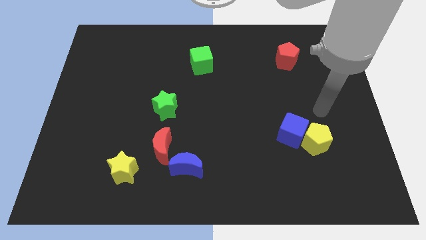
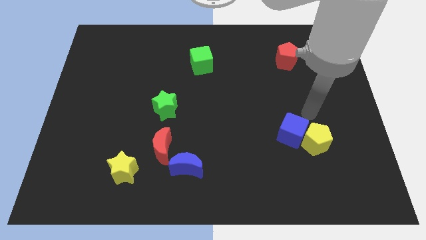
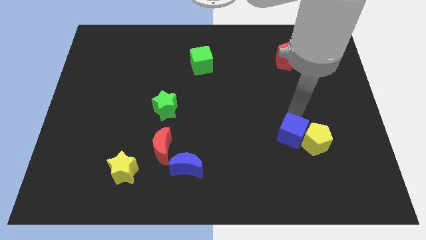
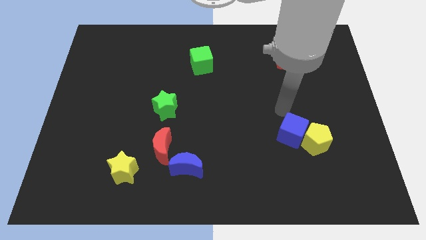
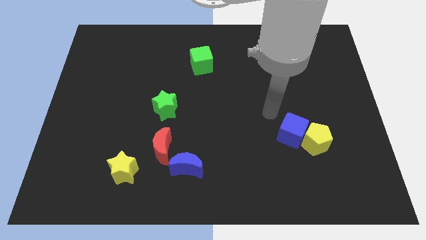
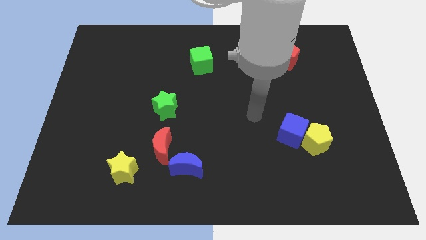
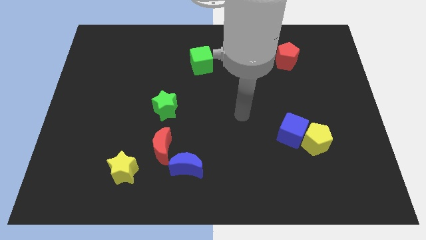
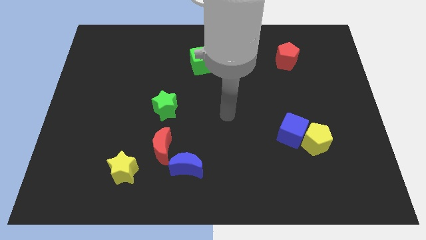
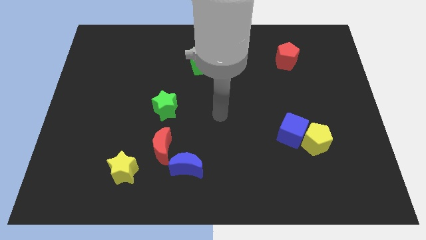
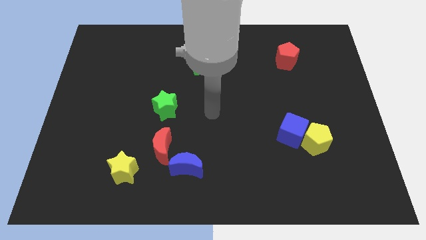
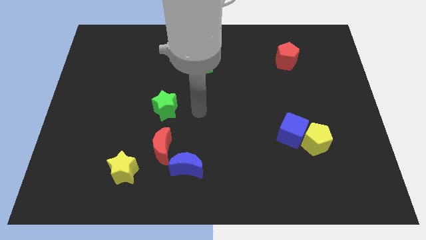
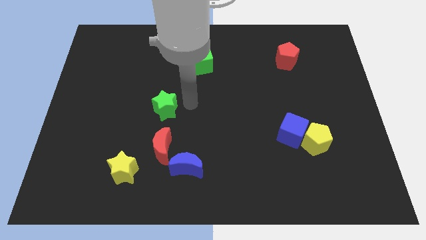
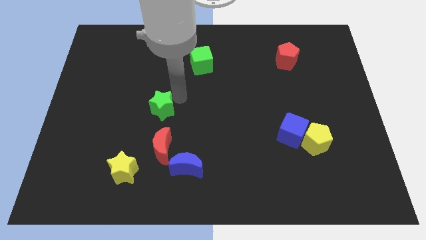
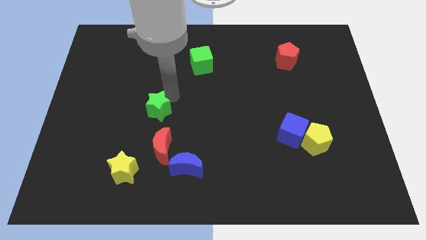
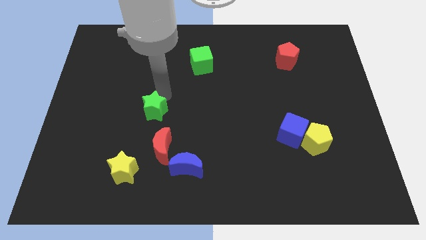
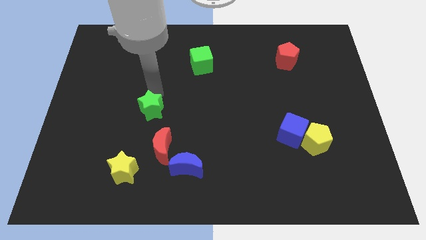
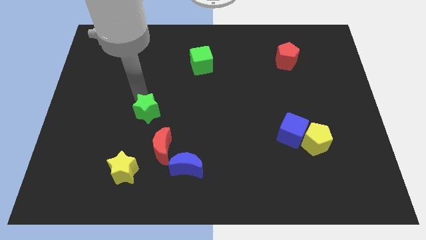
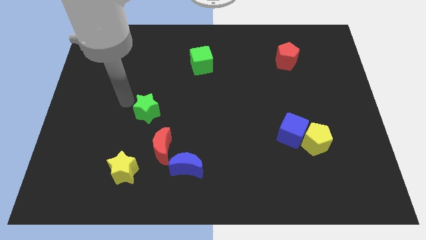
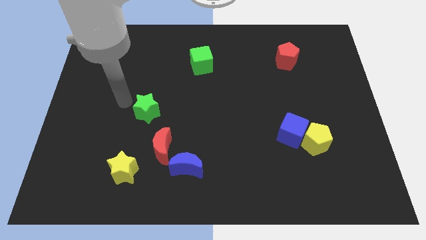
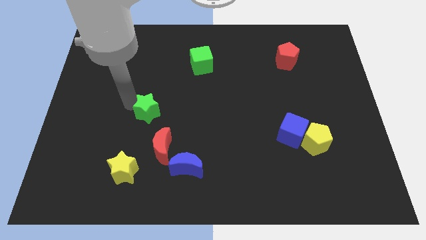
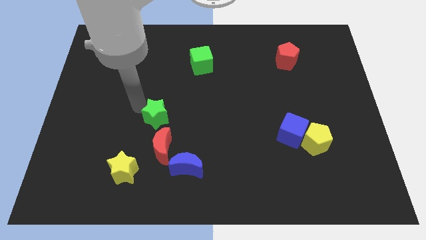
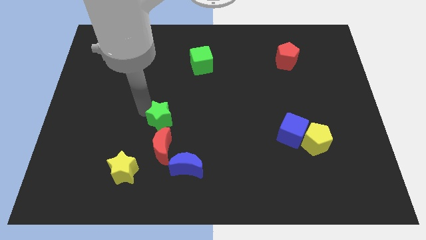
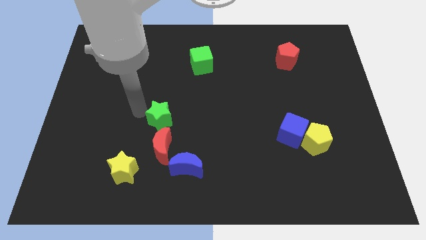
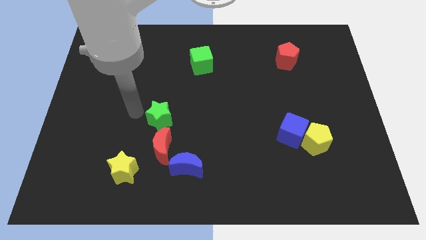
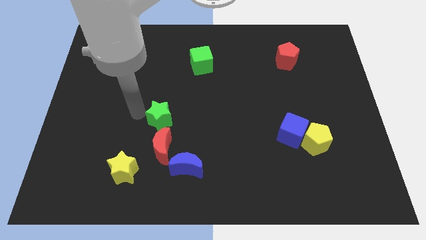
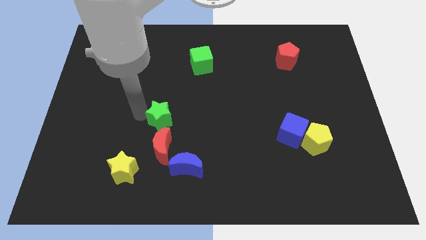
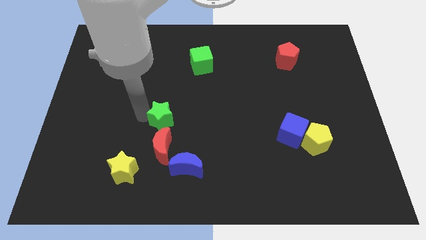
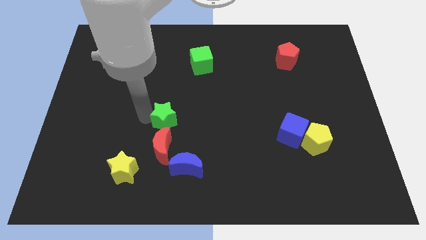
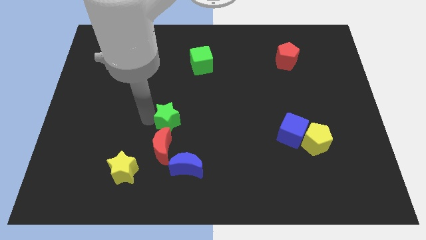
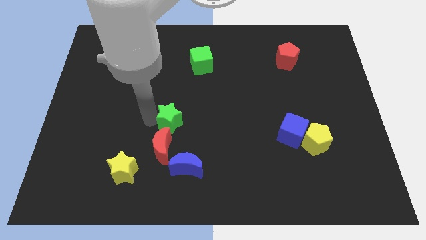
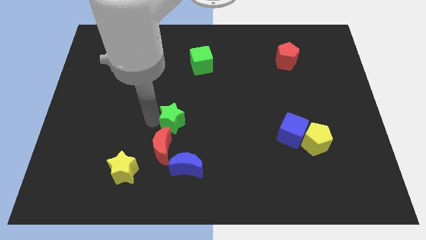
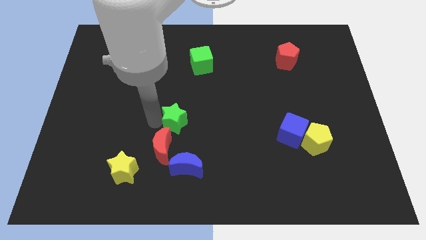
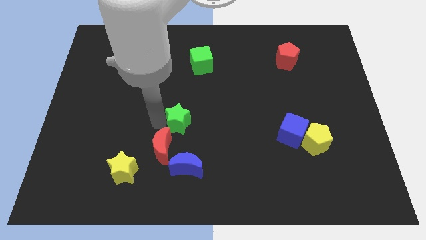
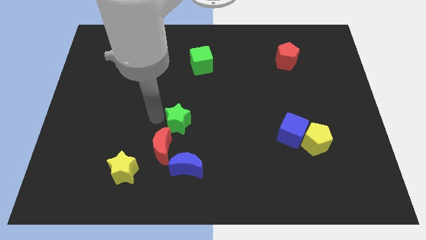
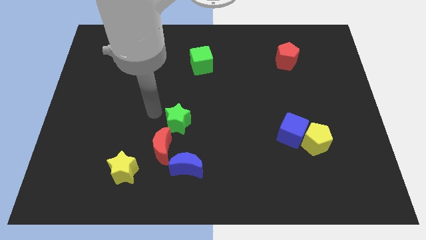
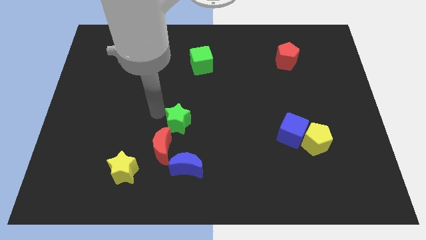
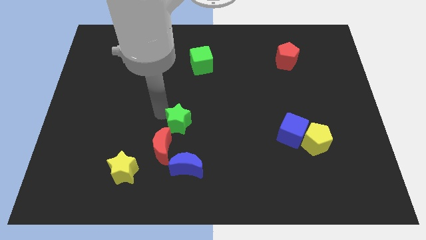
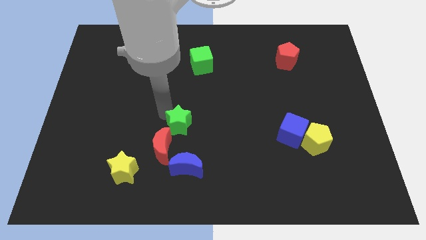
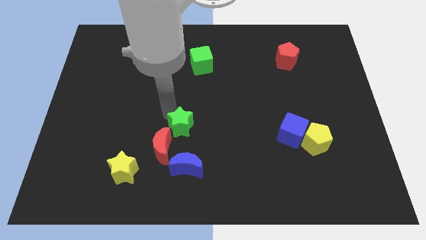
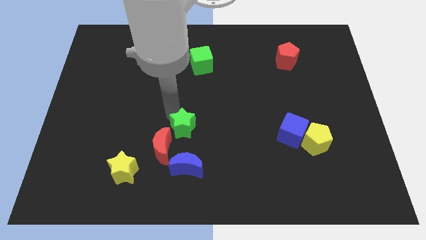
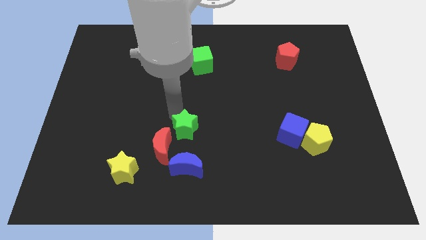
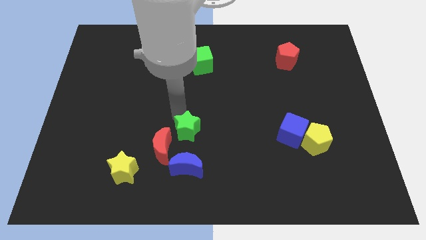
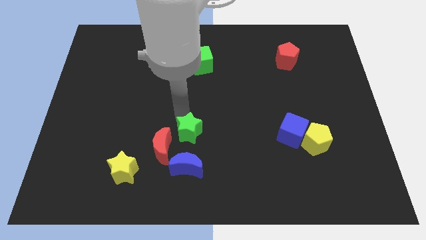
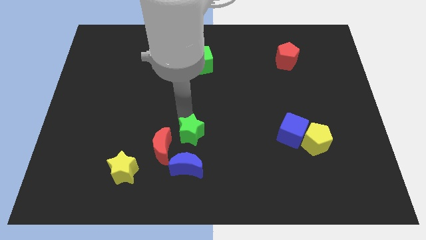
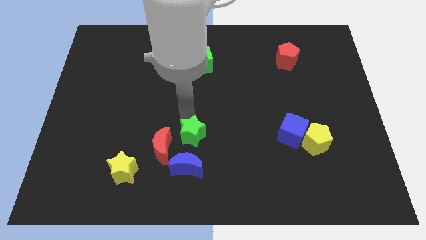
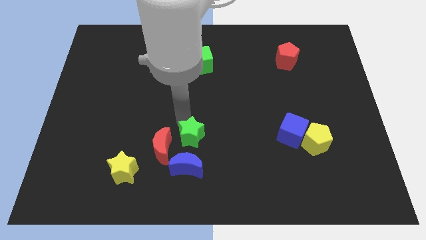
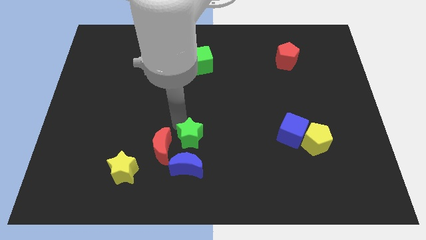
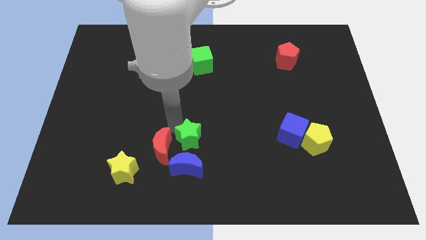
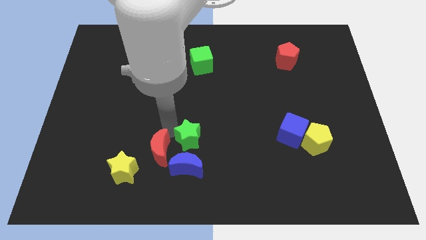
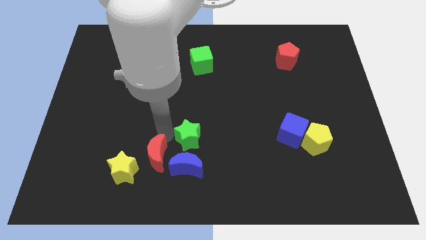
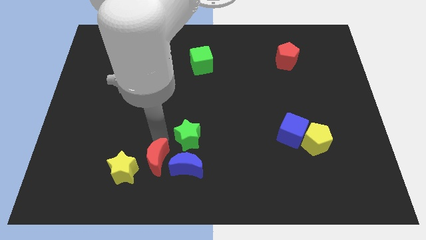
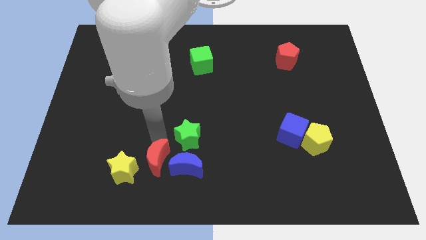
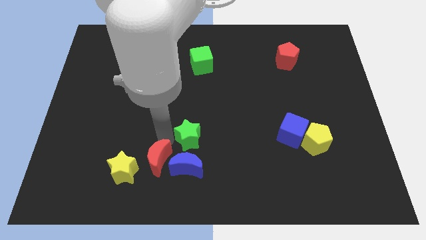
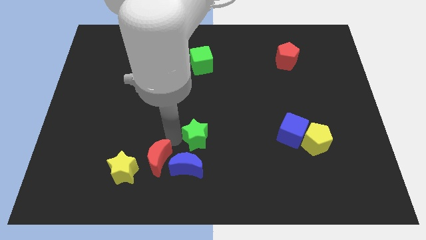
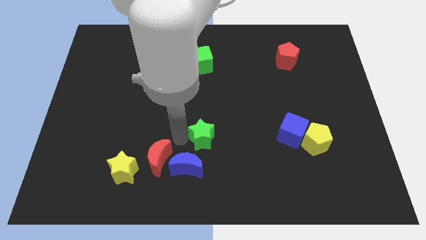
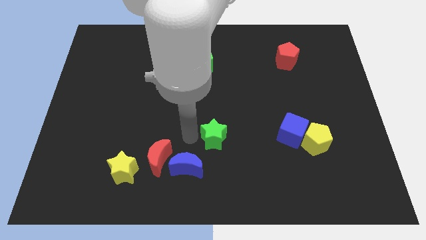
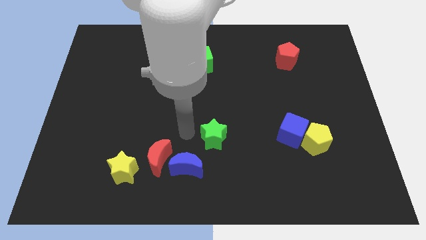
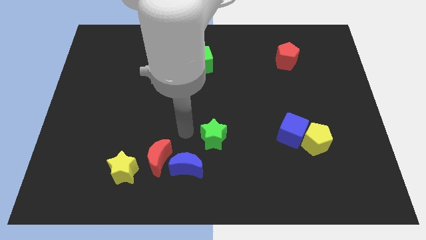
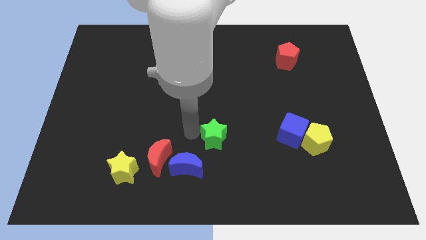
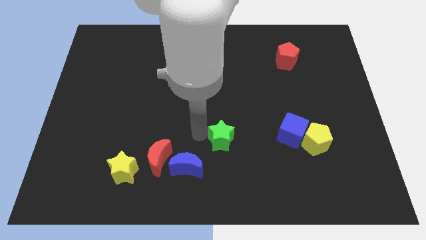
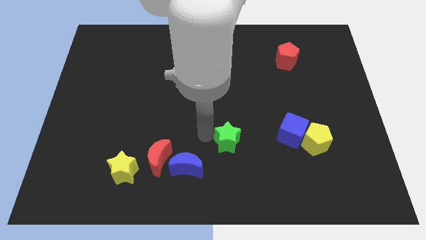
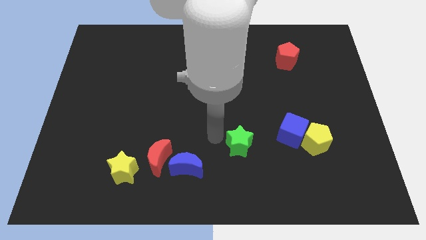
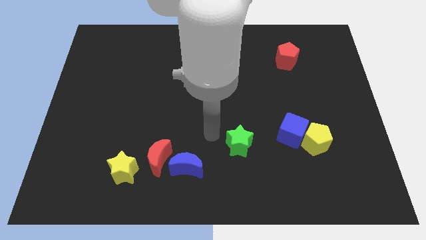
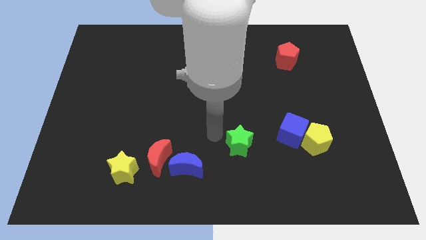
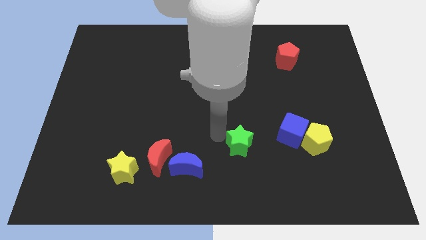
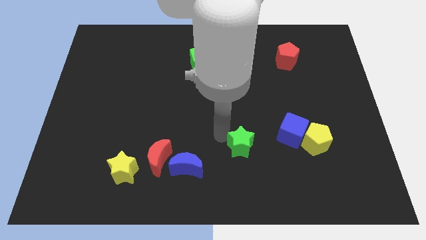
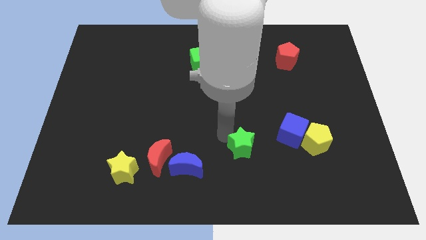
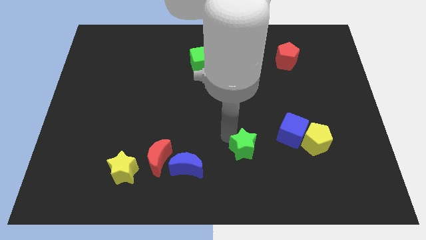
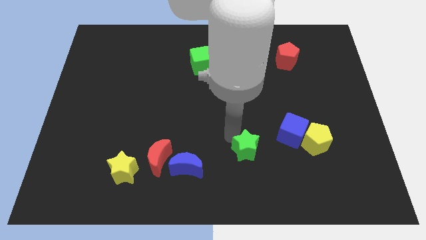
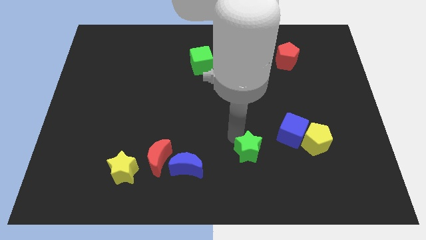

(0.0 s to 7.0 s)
put the green star to the bottom left side of the blue cube

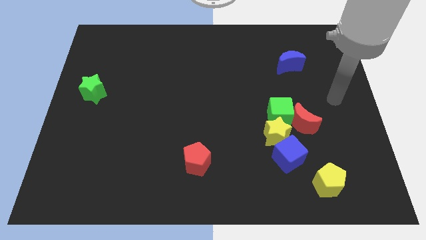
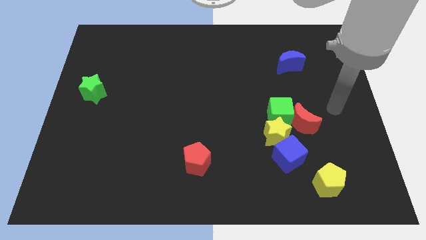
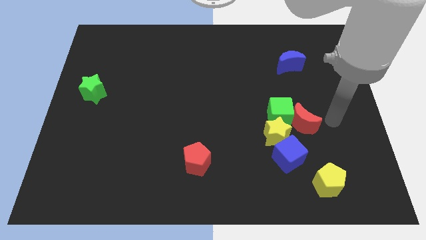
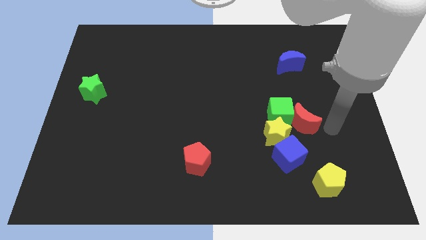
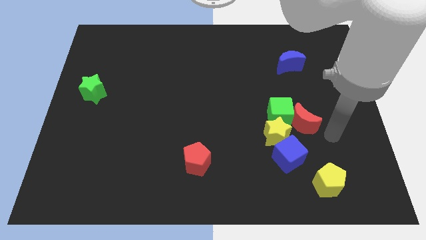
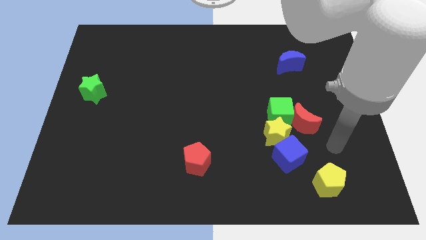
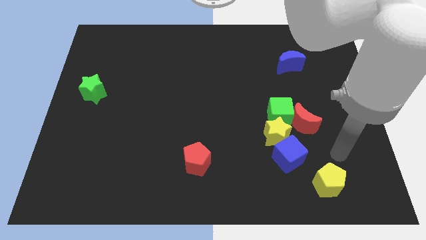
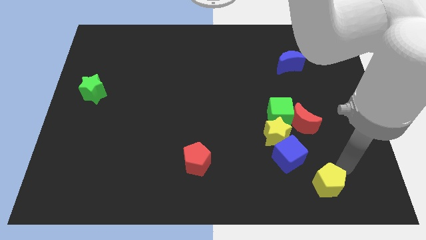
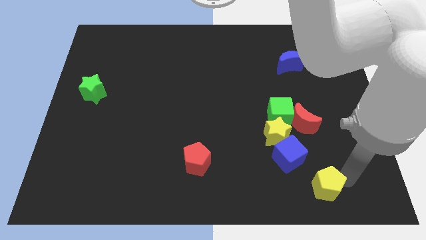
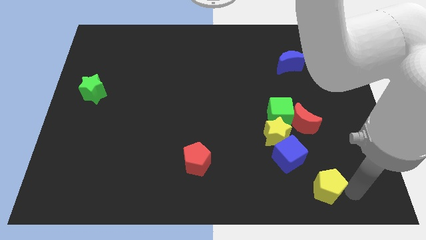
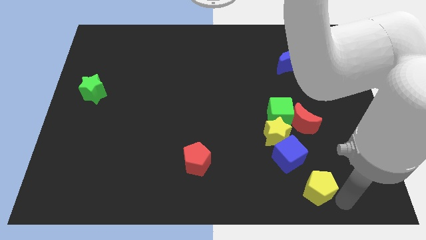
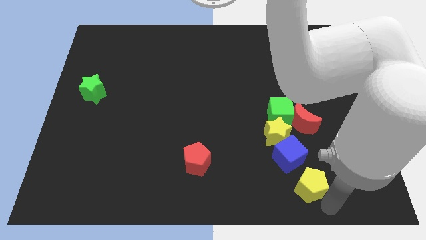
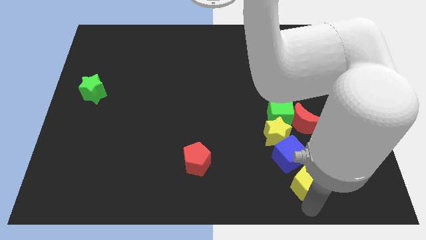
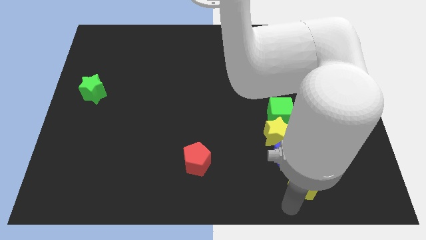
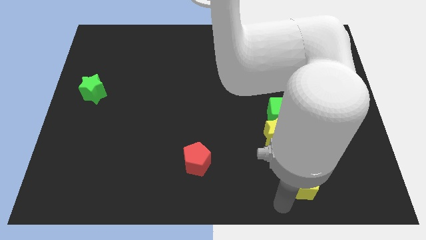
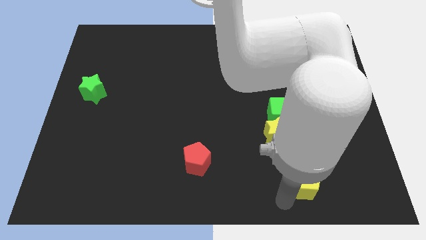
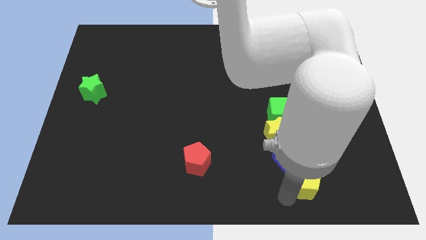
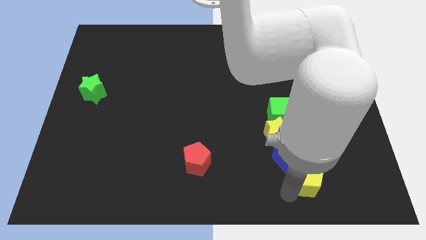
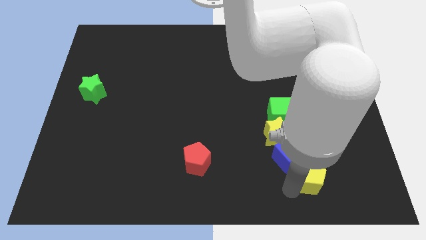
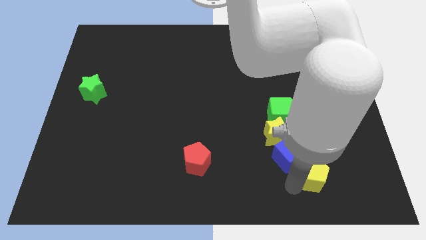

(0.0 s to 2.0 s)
push the yellow pentagon to the right of the blue cube
